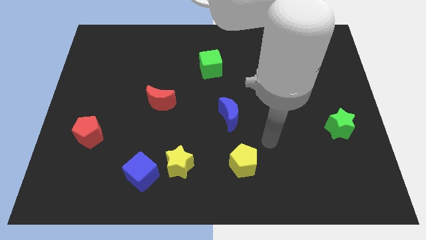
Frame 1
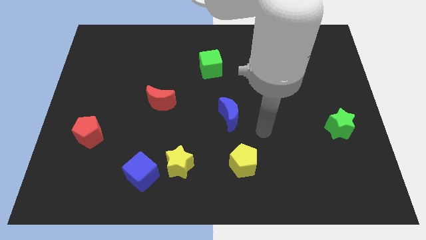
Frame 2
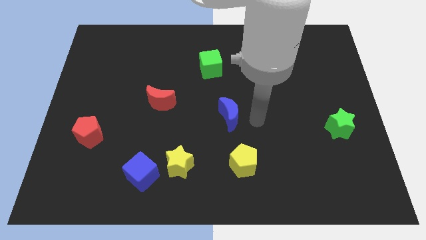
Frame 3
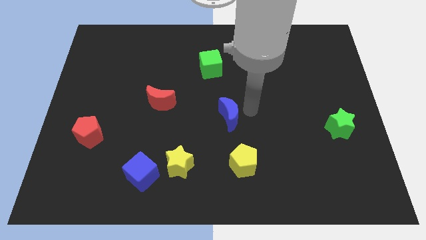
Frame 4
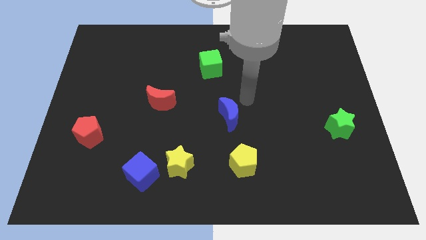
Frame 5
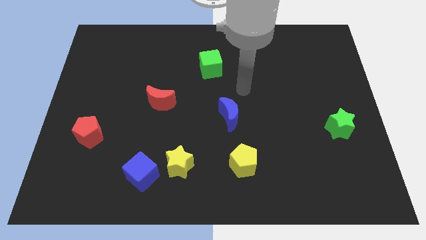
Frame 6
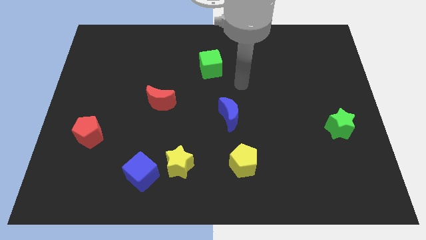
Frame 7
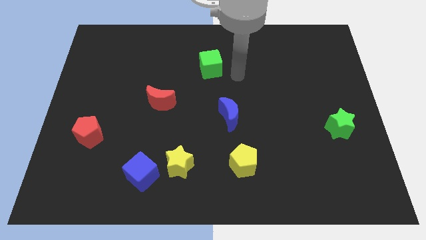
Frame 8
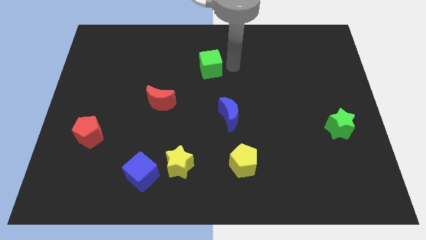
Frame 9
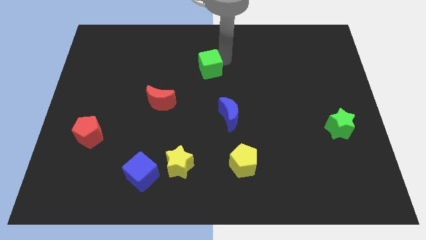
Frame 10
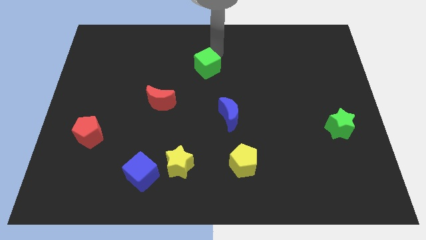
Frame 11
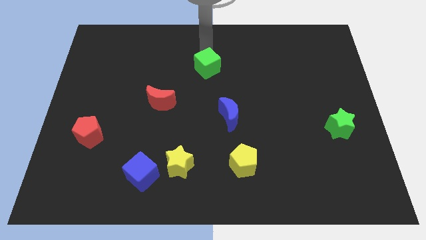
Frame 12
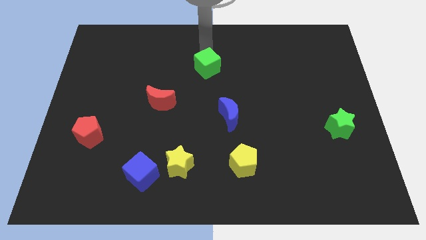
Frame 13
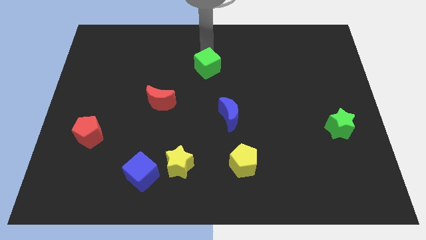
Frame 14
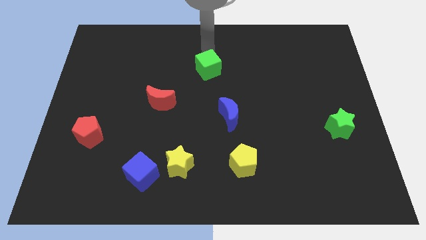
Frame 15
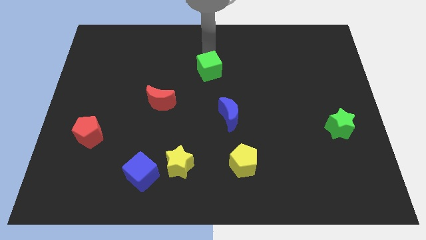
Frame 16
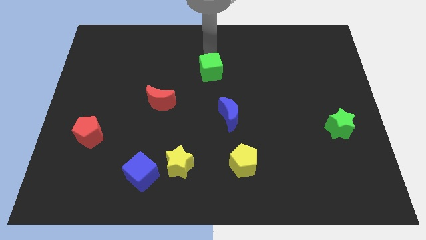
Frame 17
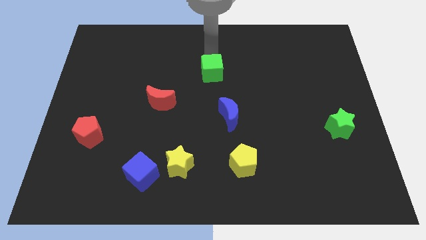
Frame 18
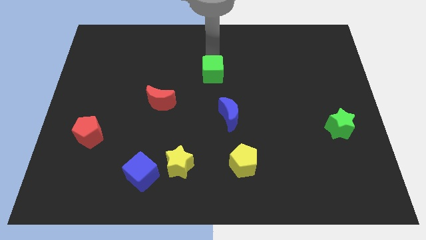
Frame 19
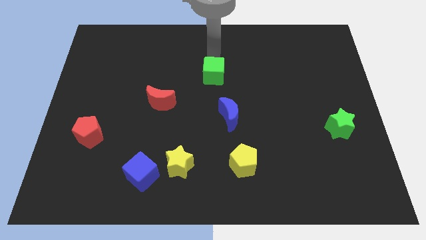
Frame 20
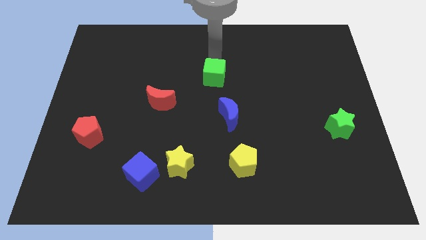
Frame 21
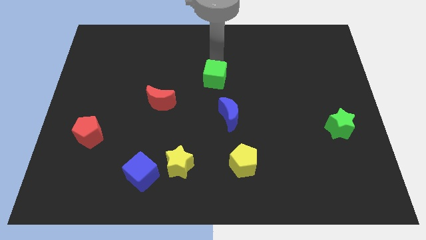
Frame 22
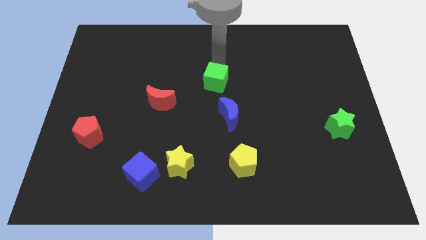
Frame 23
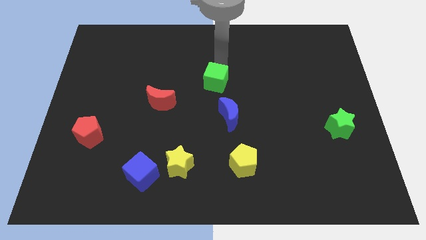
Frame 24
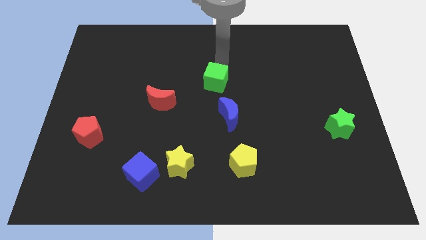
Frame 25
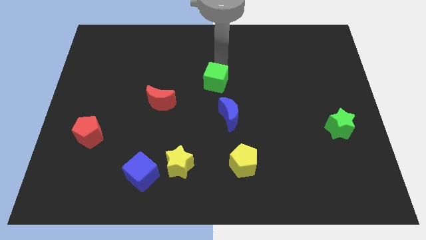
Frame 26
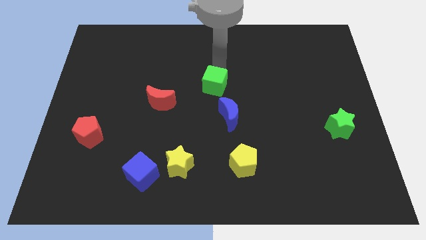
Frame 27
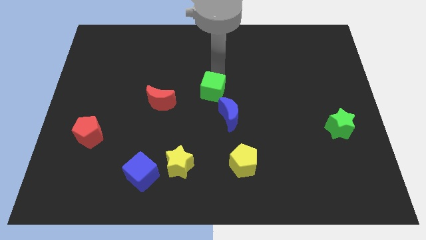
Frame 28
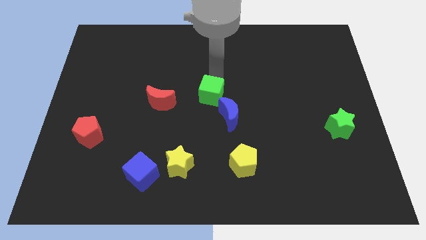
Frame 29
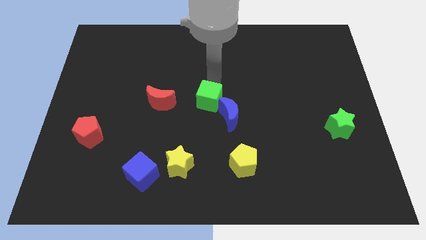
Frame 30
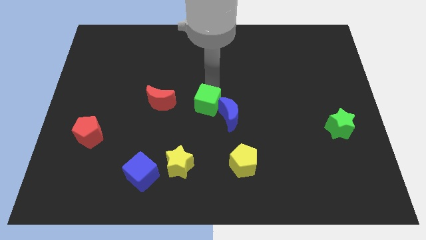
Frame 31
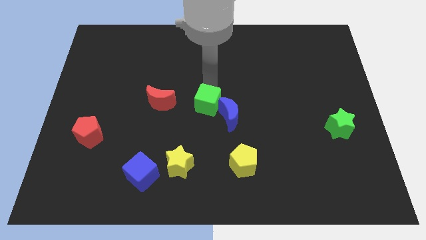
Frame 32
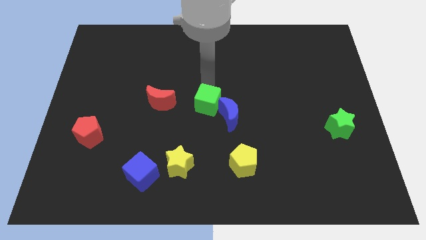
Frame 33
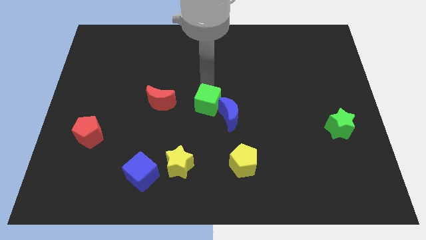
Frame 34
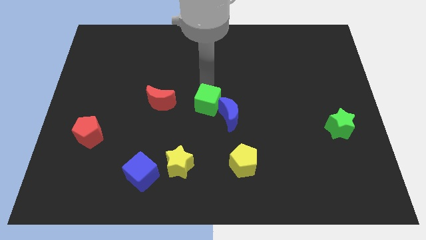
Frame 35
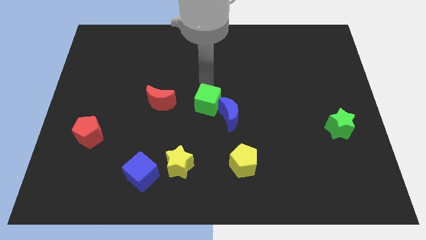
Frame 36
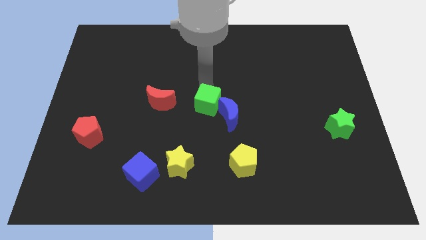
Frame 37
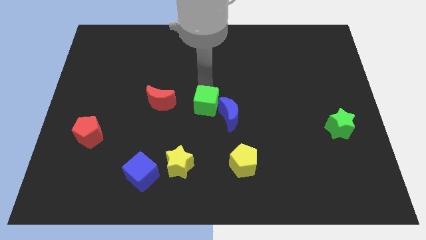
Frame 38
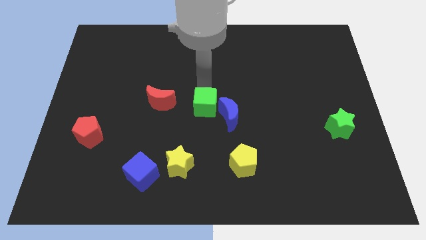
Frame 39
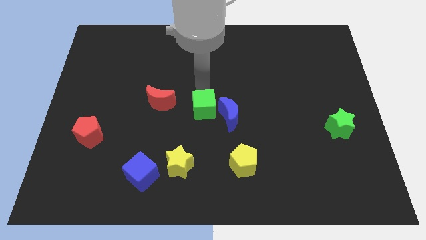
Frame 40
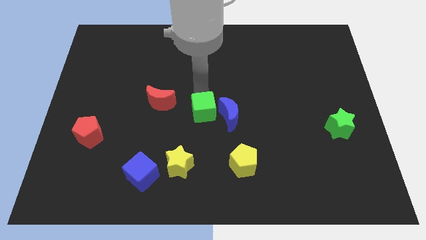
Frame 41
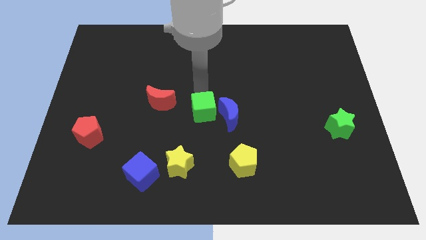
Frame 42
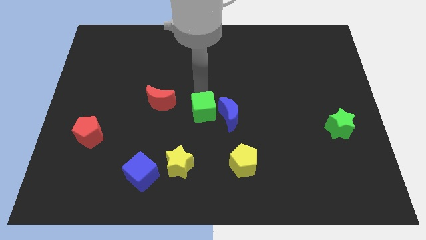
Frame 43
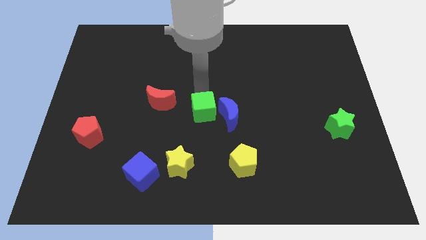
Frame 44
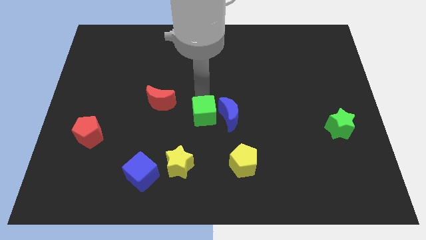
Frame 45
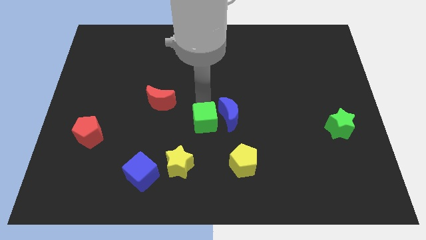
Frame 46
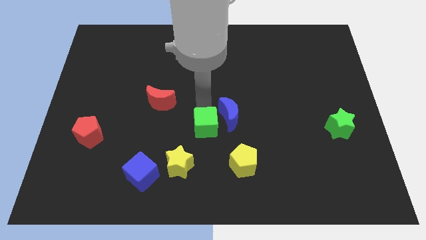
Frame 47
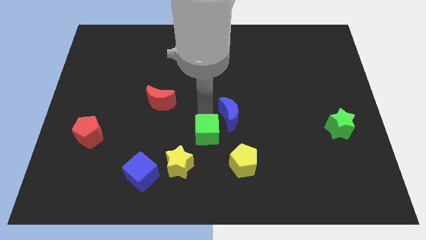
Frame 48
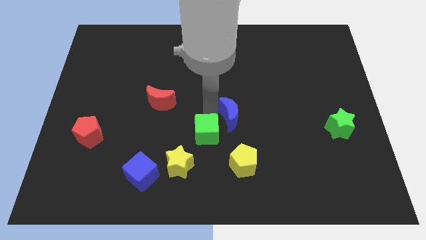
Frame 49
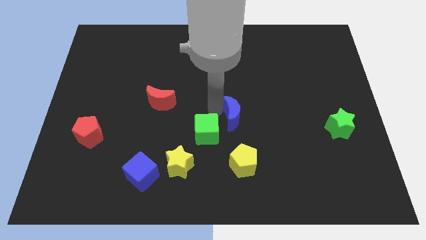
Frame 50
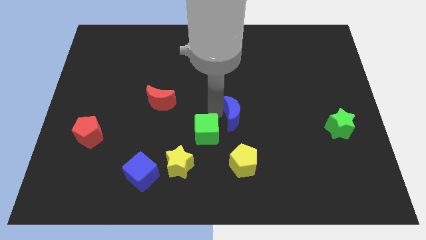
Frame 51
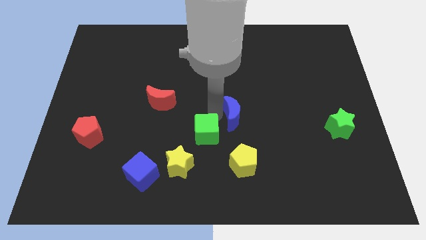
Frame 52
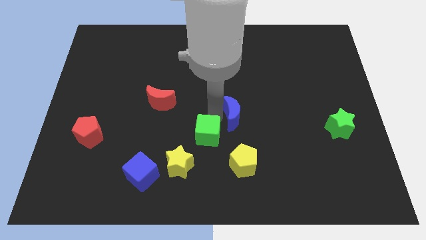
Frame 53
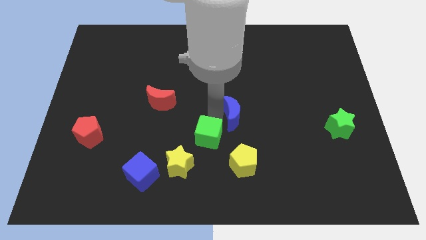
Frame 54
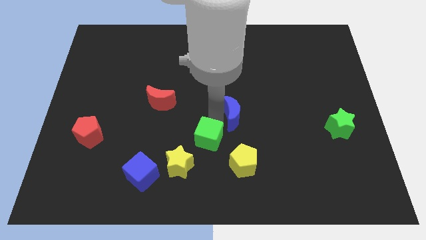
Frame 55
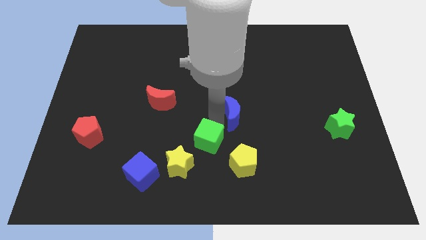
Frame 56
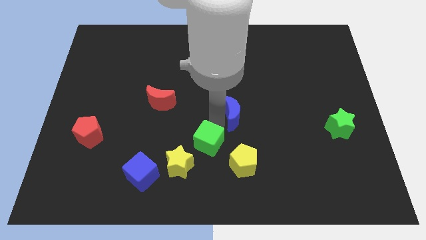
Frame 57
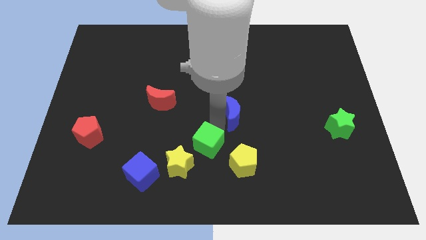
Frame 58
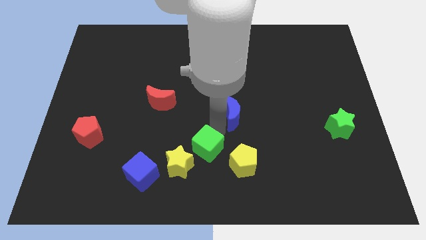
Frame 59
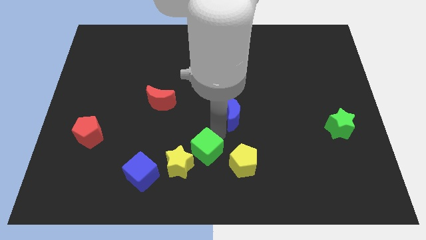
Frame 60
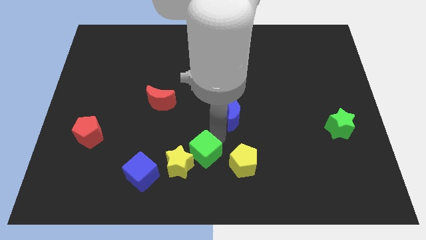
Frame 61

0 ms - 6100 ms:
put the green cube towards the yellow star
